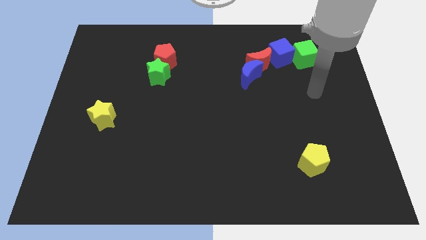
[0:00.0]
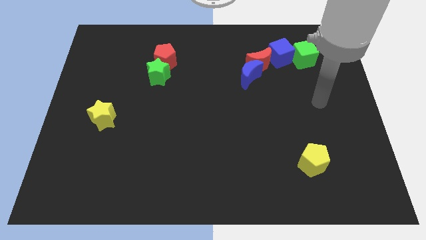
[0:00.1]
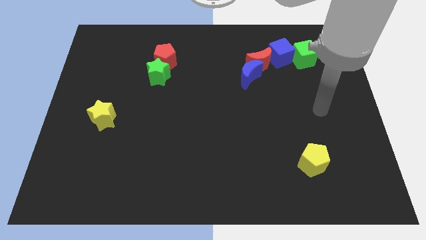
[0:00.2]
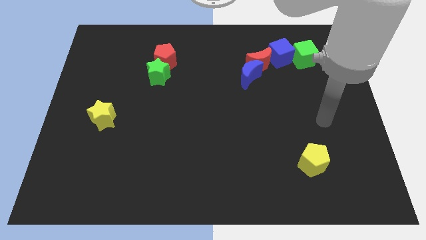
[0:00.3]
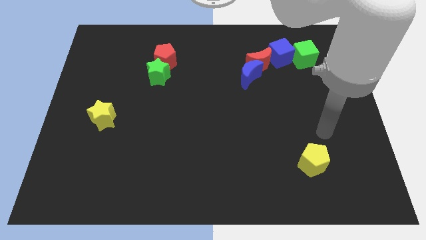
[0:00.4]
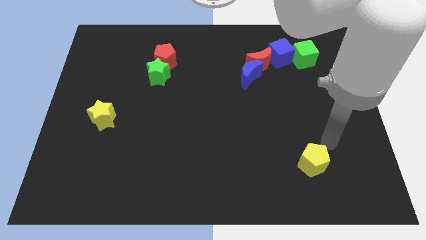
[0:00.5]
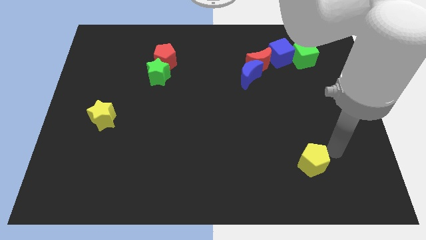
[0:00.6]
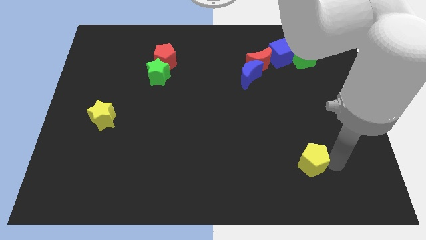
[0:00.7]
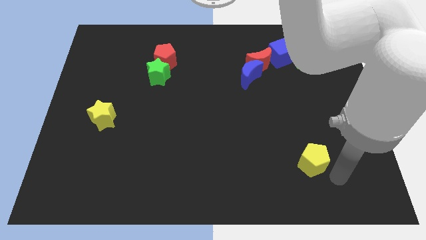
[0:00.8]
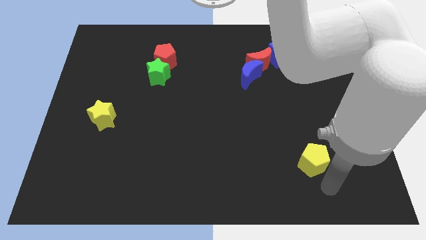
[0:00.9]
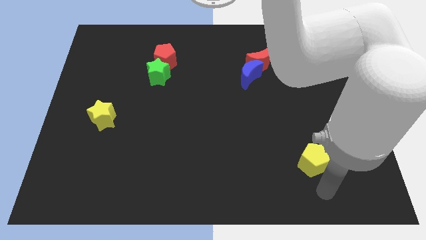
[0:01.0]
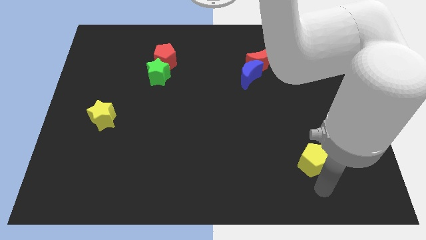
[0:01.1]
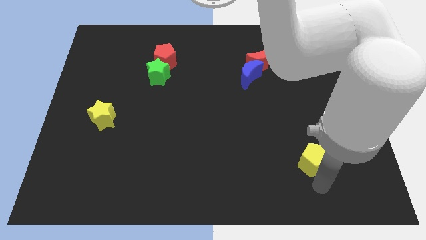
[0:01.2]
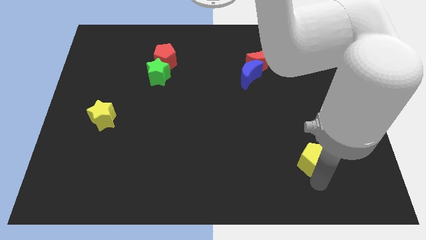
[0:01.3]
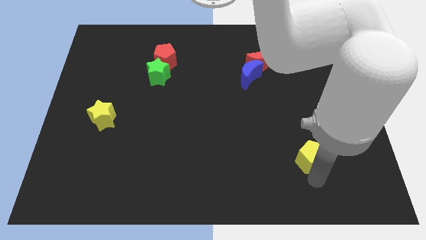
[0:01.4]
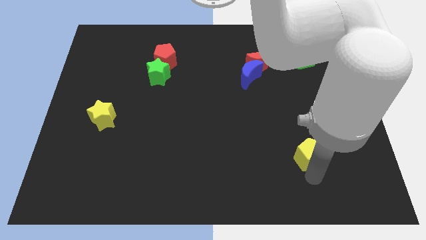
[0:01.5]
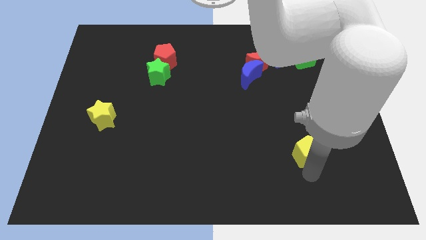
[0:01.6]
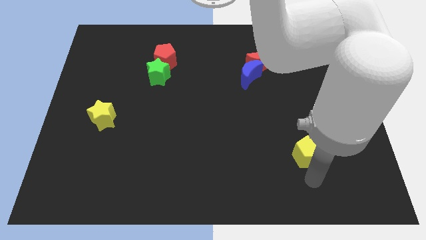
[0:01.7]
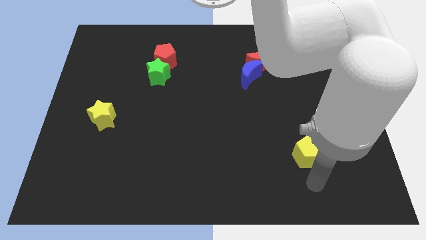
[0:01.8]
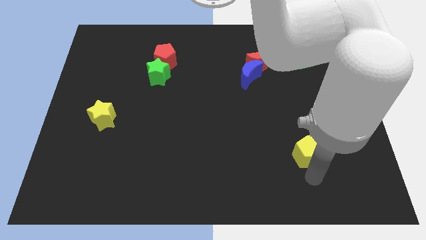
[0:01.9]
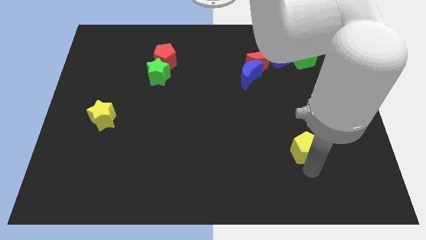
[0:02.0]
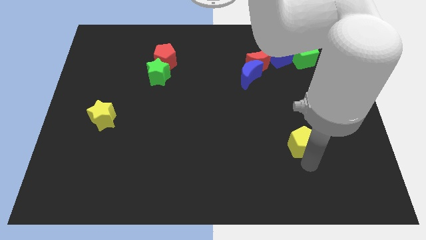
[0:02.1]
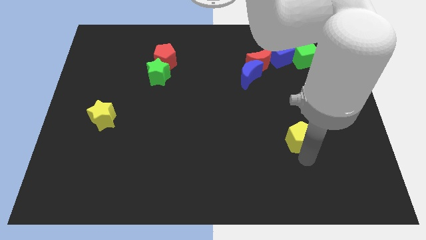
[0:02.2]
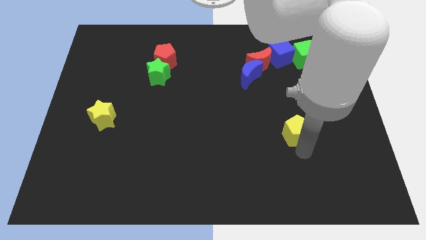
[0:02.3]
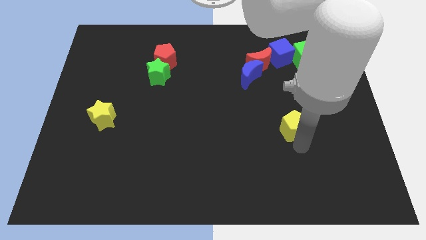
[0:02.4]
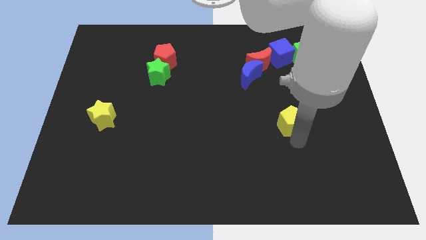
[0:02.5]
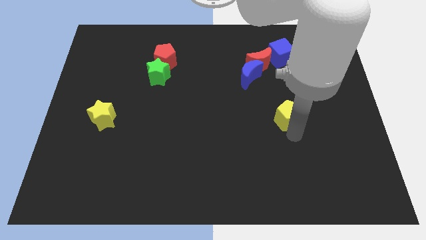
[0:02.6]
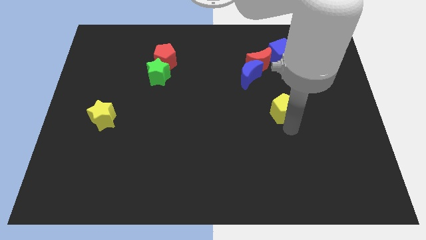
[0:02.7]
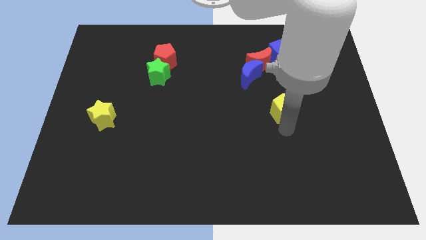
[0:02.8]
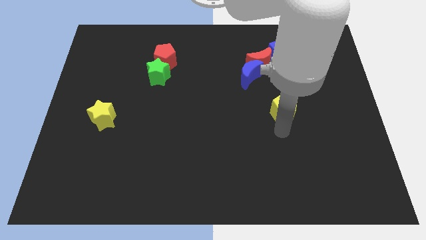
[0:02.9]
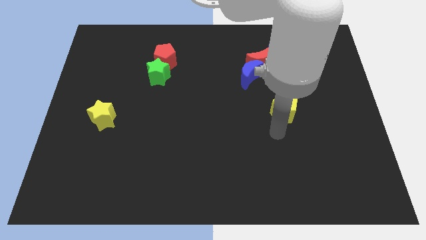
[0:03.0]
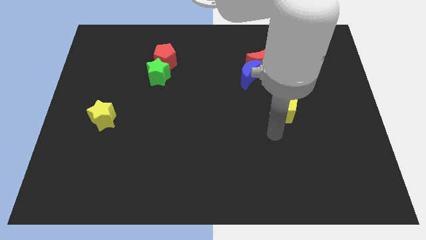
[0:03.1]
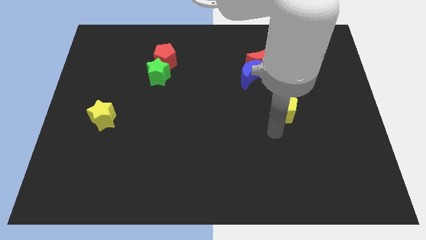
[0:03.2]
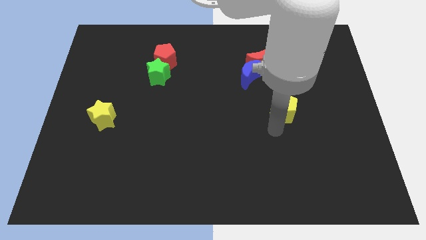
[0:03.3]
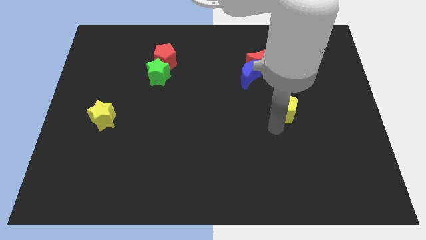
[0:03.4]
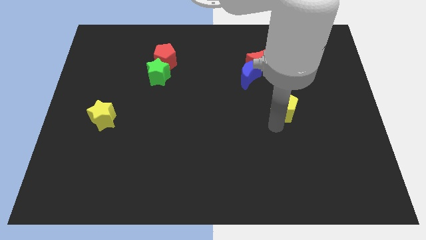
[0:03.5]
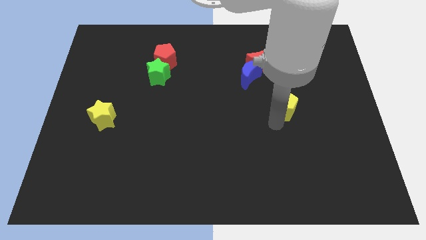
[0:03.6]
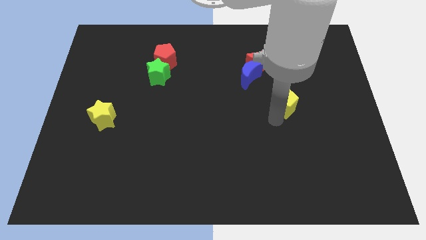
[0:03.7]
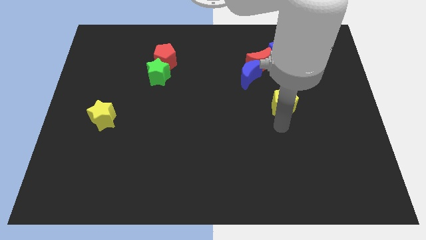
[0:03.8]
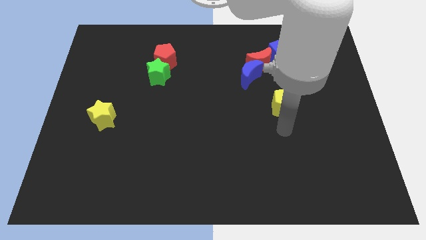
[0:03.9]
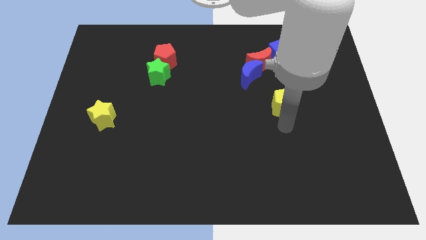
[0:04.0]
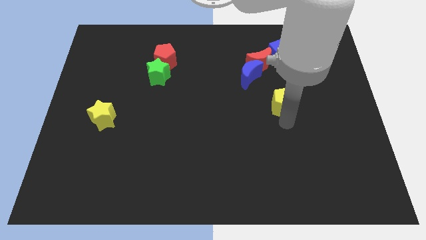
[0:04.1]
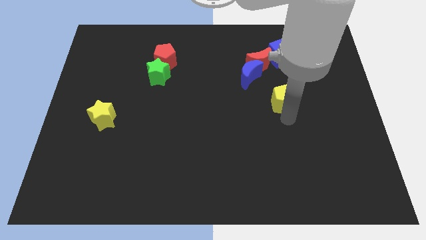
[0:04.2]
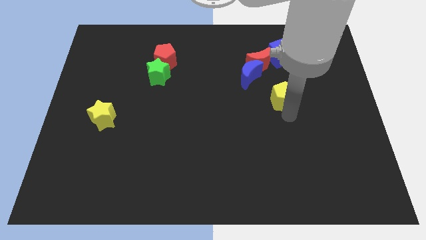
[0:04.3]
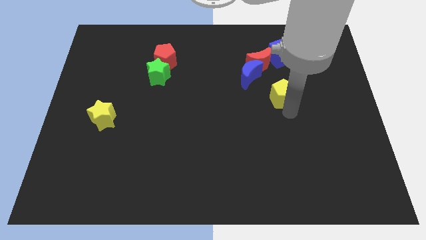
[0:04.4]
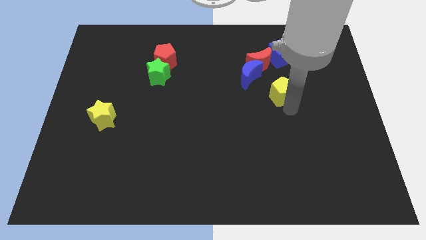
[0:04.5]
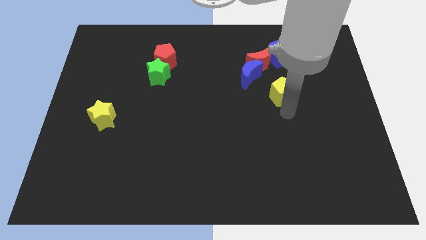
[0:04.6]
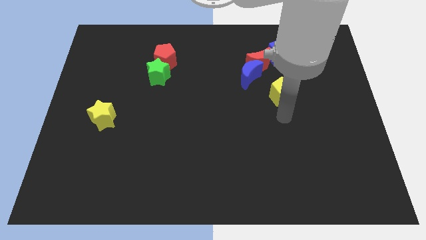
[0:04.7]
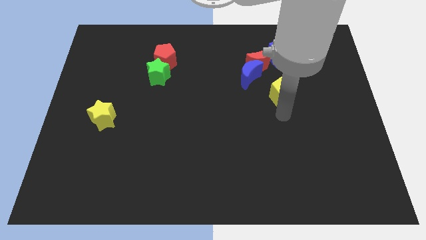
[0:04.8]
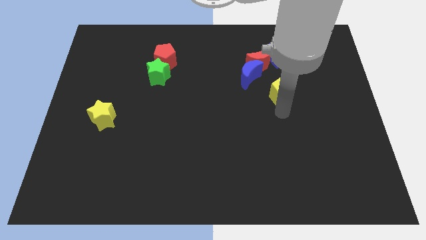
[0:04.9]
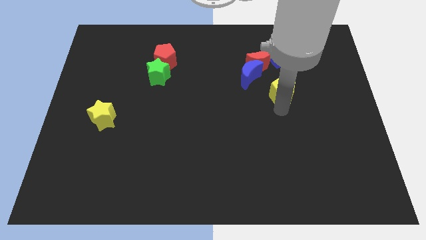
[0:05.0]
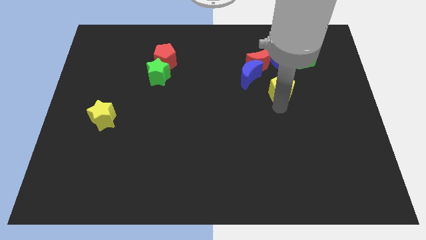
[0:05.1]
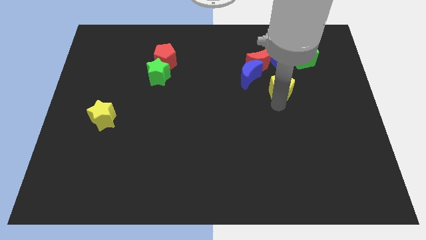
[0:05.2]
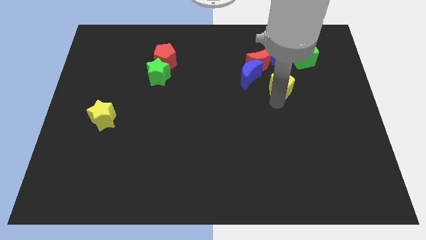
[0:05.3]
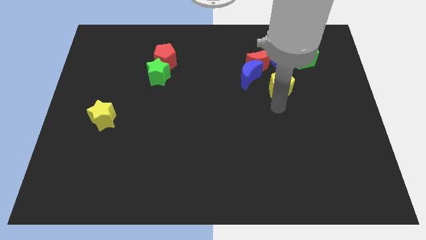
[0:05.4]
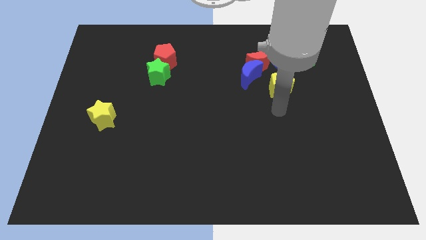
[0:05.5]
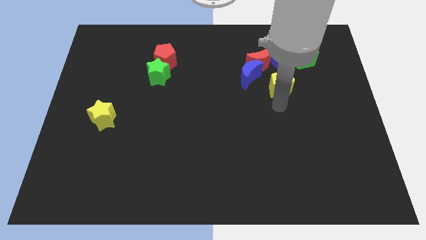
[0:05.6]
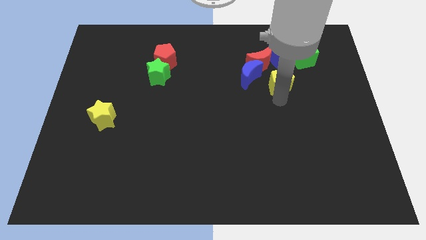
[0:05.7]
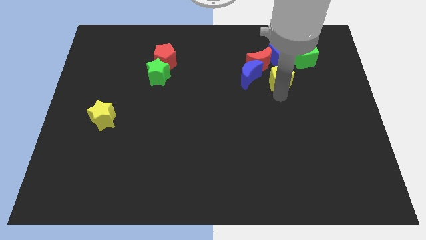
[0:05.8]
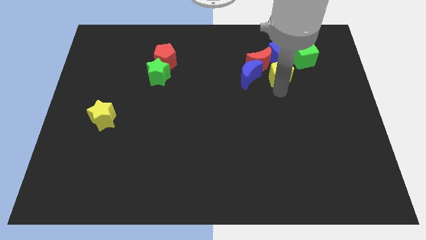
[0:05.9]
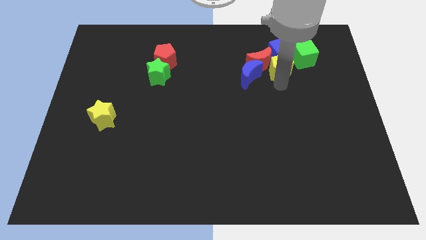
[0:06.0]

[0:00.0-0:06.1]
push the yellow pentagon to the blue cube

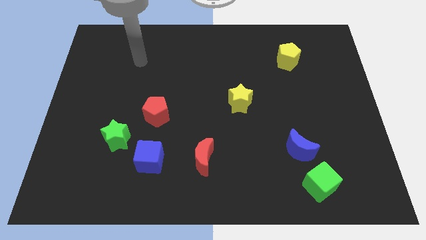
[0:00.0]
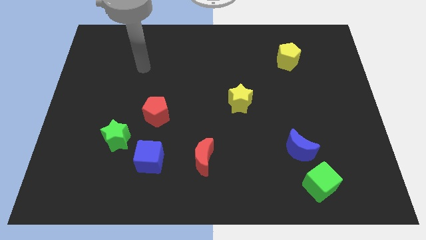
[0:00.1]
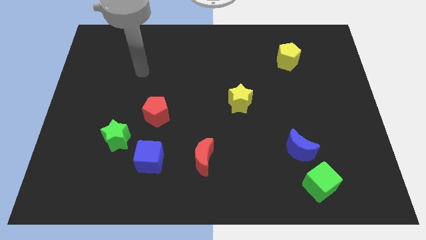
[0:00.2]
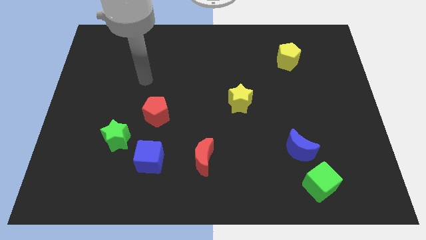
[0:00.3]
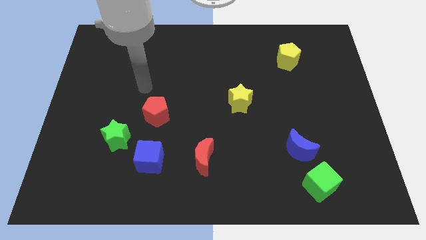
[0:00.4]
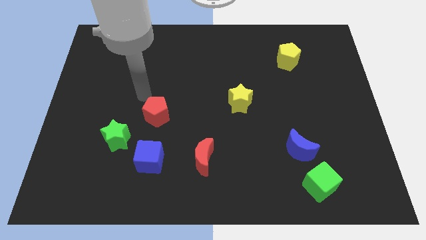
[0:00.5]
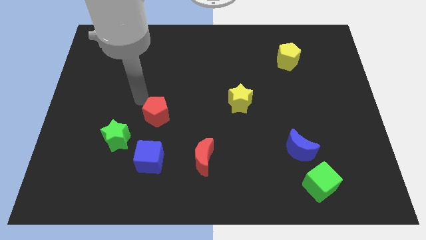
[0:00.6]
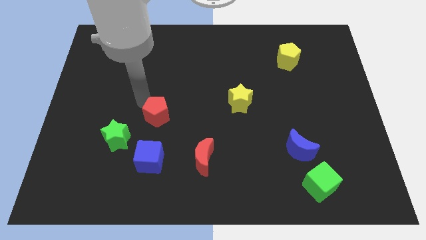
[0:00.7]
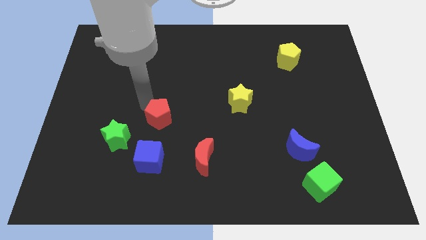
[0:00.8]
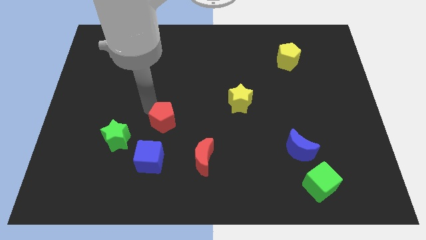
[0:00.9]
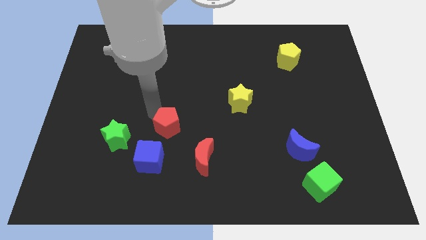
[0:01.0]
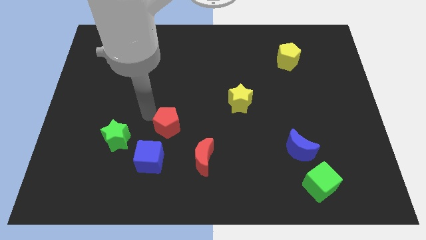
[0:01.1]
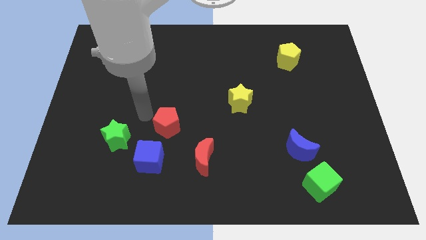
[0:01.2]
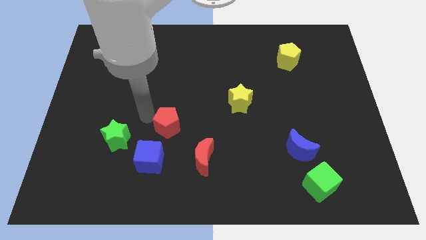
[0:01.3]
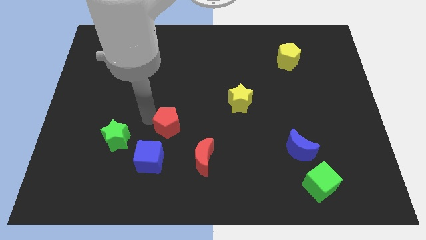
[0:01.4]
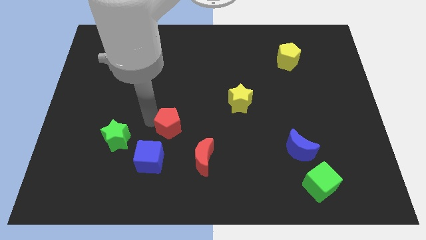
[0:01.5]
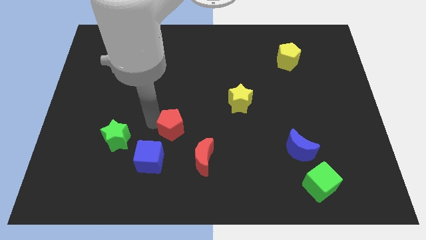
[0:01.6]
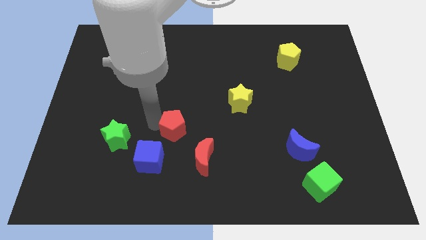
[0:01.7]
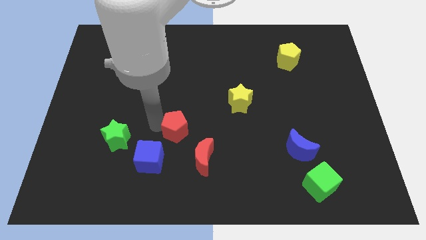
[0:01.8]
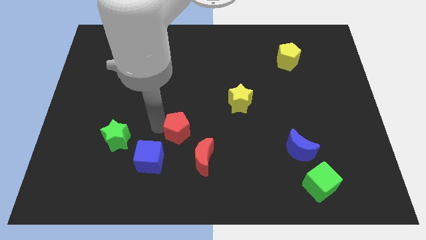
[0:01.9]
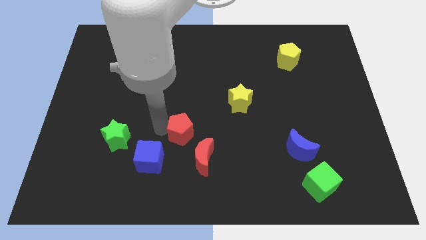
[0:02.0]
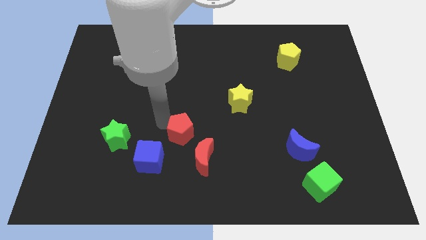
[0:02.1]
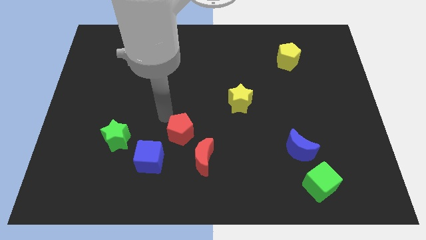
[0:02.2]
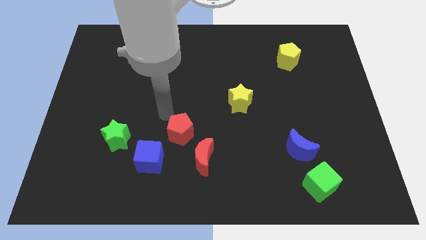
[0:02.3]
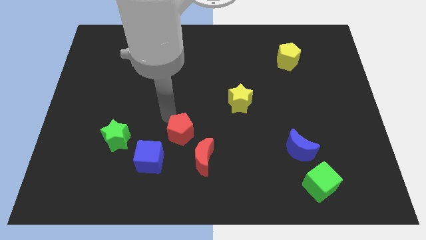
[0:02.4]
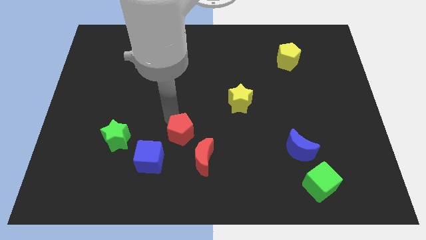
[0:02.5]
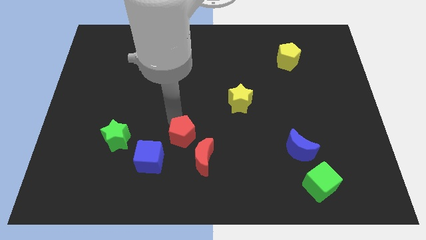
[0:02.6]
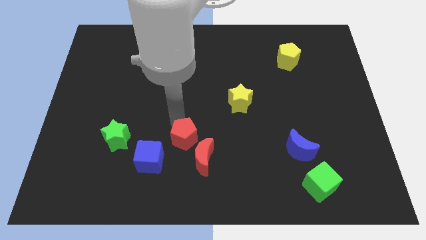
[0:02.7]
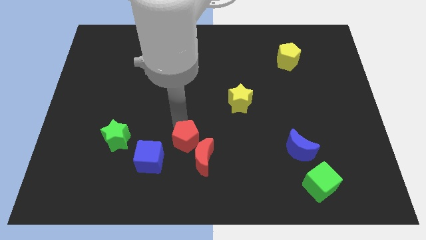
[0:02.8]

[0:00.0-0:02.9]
slide the red pentagon to the red moon
